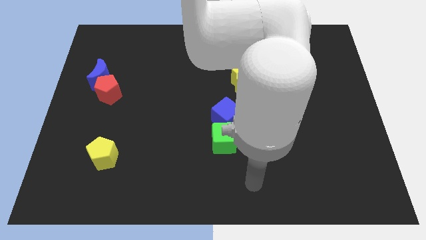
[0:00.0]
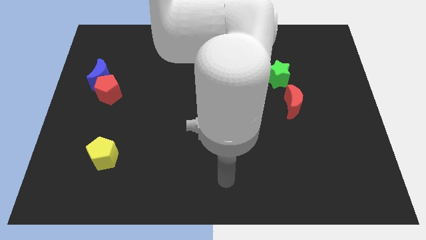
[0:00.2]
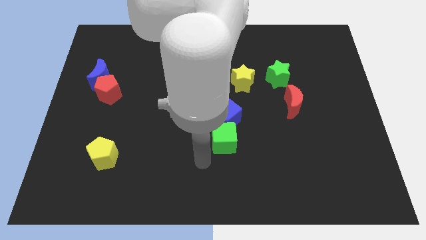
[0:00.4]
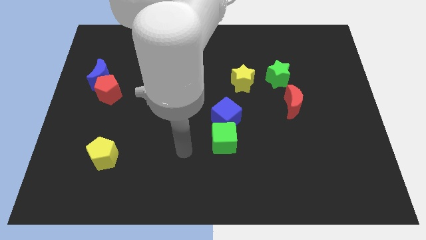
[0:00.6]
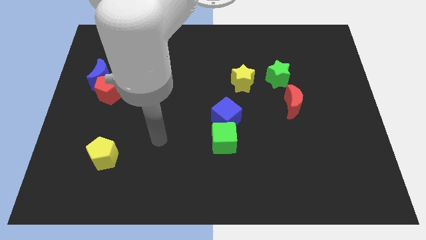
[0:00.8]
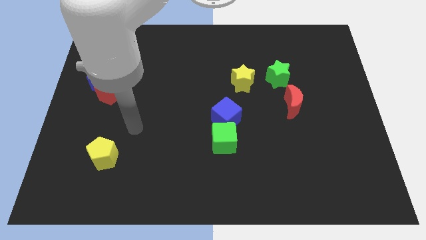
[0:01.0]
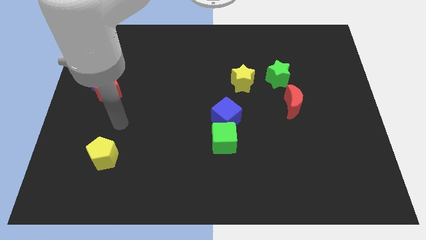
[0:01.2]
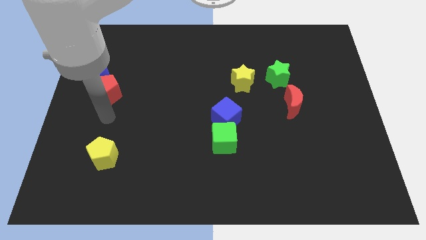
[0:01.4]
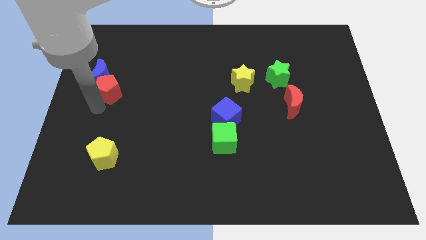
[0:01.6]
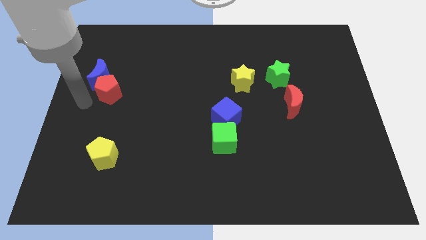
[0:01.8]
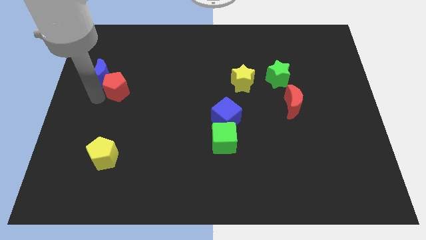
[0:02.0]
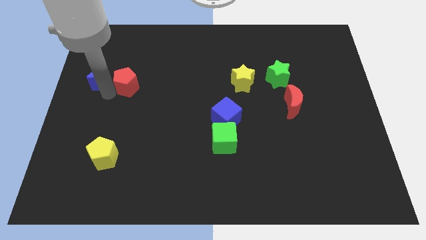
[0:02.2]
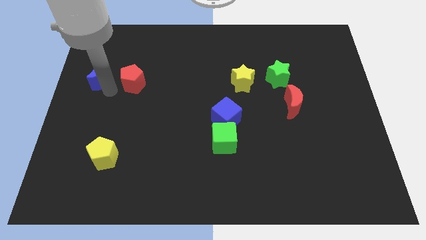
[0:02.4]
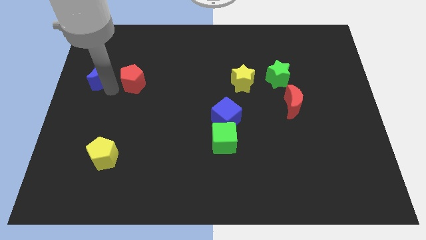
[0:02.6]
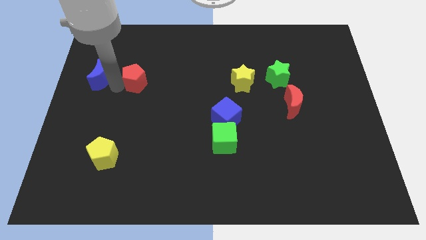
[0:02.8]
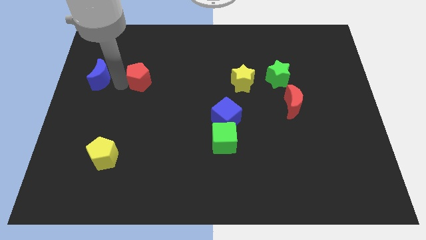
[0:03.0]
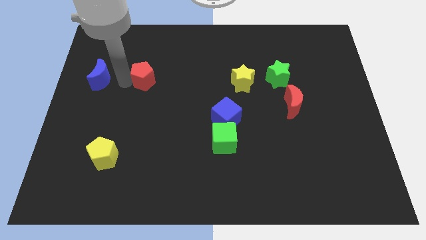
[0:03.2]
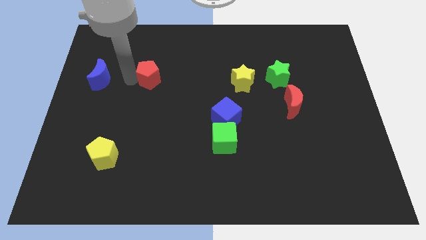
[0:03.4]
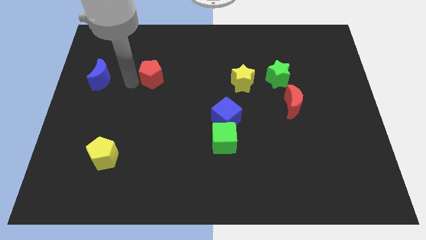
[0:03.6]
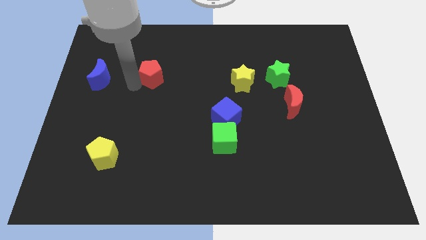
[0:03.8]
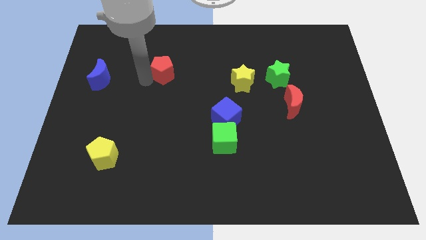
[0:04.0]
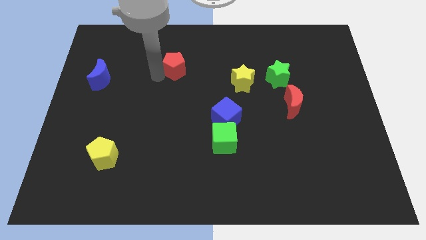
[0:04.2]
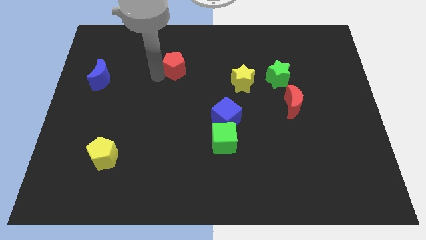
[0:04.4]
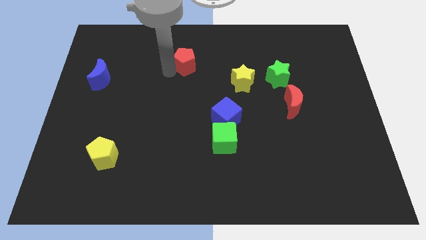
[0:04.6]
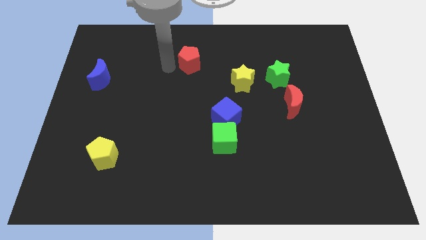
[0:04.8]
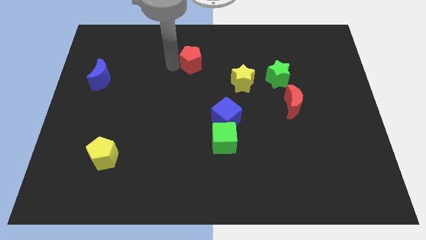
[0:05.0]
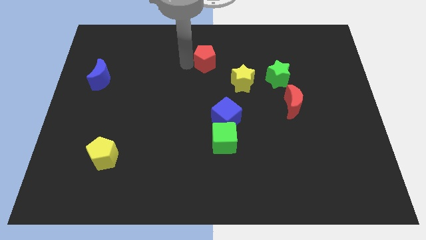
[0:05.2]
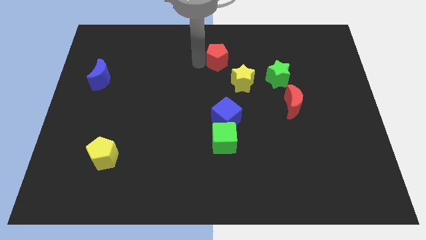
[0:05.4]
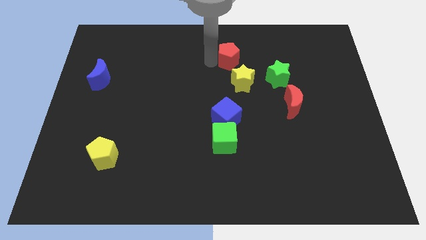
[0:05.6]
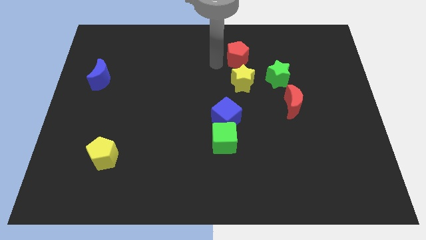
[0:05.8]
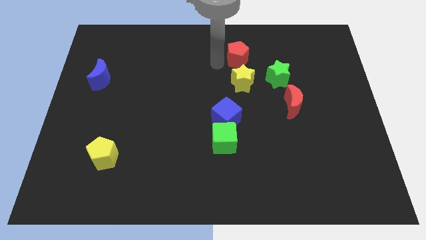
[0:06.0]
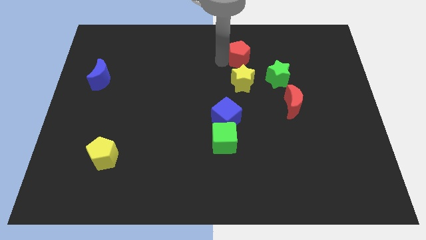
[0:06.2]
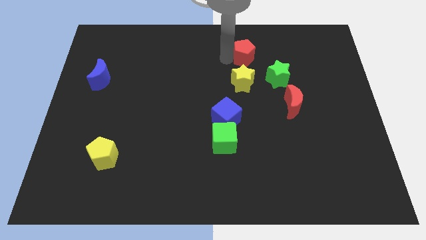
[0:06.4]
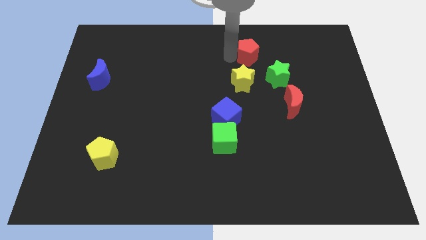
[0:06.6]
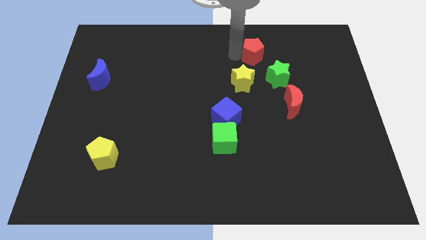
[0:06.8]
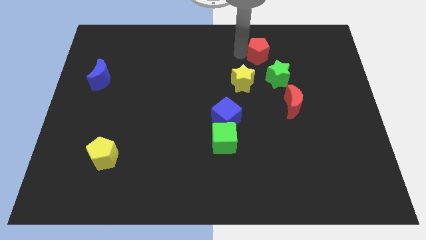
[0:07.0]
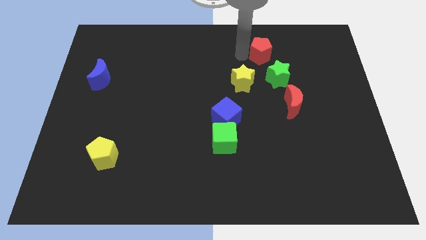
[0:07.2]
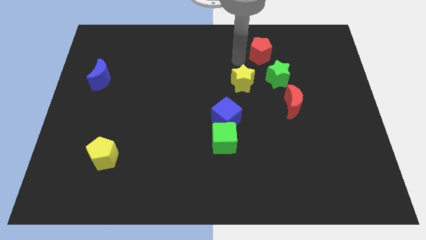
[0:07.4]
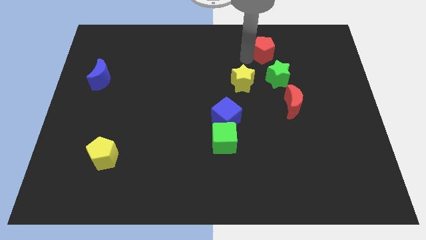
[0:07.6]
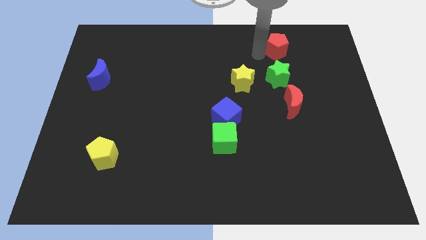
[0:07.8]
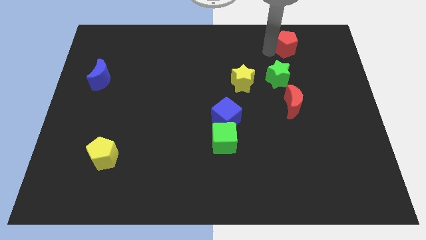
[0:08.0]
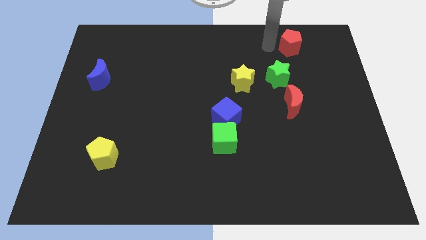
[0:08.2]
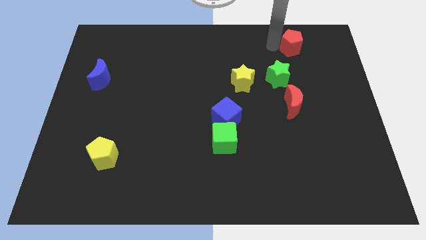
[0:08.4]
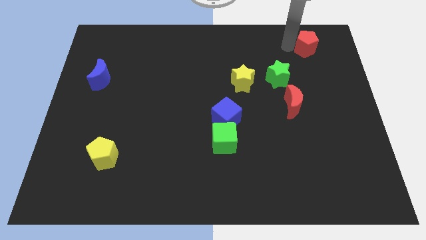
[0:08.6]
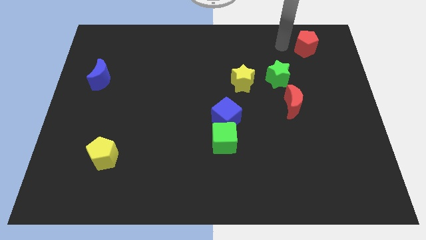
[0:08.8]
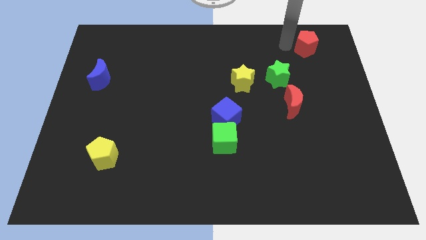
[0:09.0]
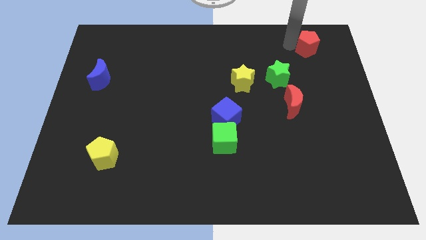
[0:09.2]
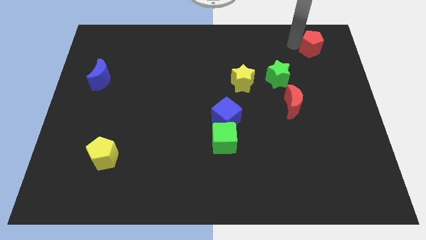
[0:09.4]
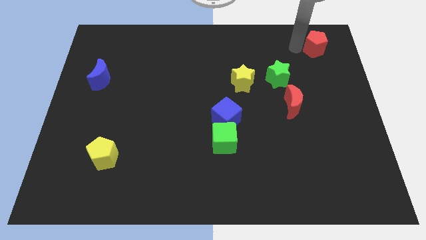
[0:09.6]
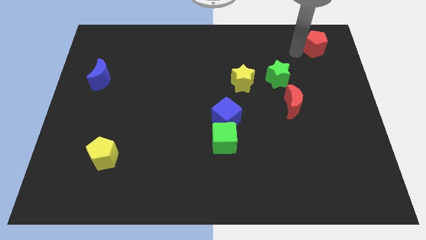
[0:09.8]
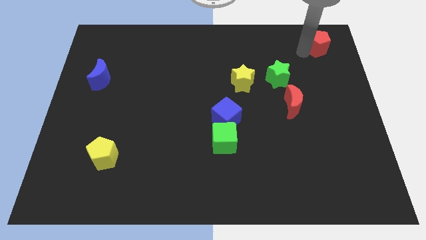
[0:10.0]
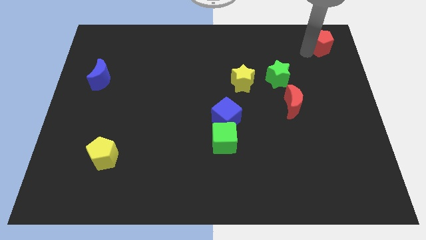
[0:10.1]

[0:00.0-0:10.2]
slide the red pentagon to the upper right corner

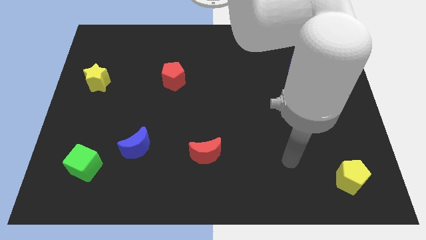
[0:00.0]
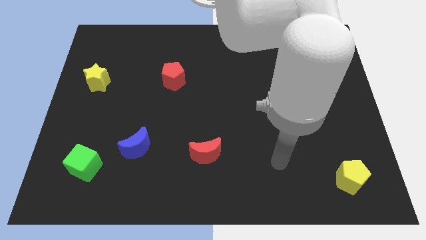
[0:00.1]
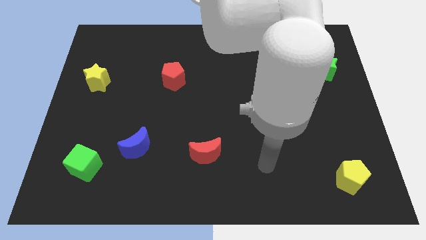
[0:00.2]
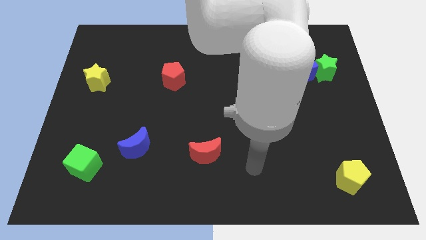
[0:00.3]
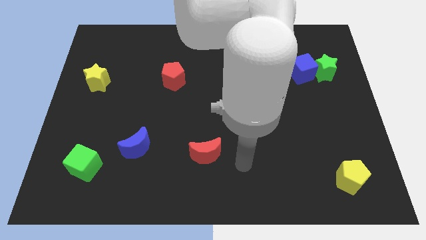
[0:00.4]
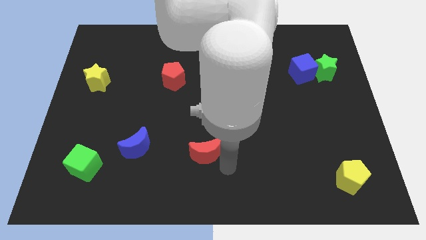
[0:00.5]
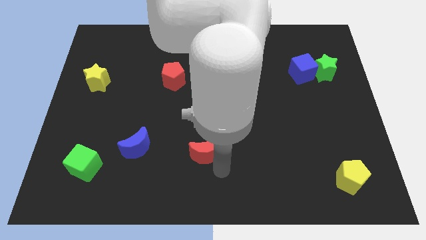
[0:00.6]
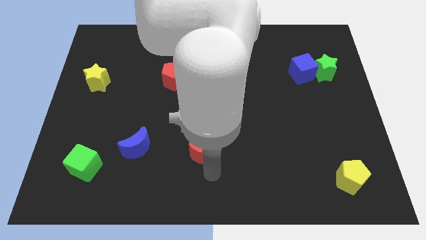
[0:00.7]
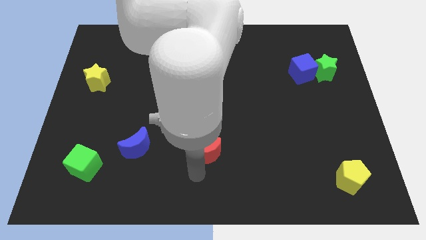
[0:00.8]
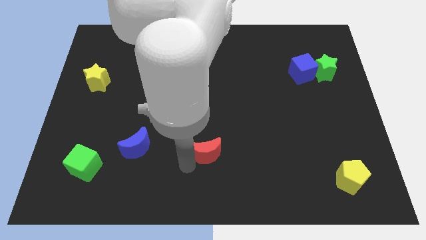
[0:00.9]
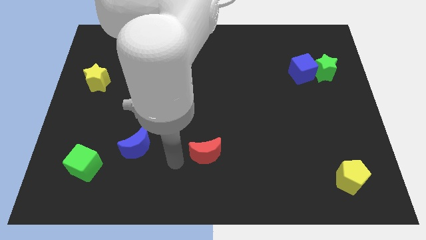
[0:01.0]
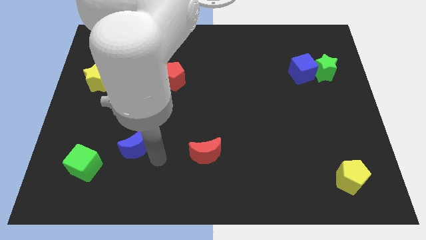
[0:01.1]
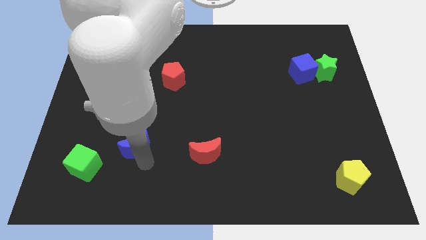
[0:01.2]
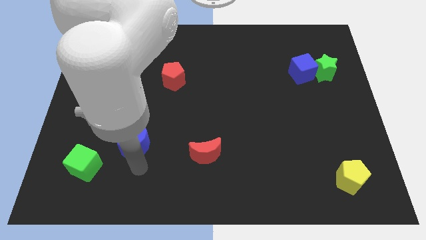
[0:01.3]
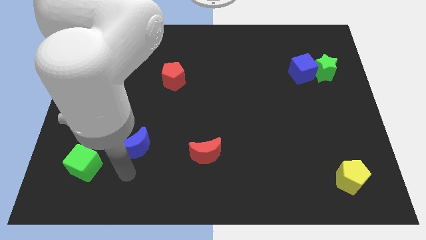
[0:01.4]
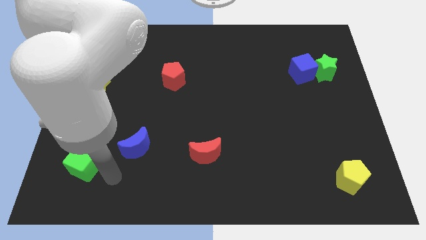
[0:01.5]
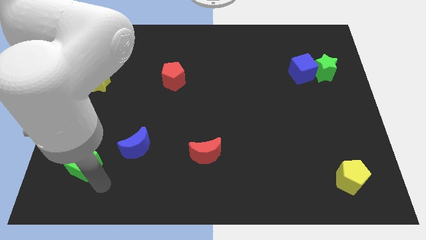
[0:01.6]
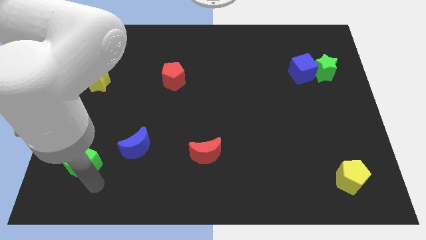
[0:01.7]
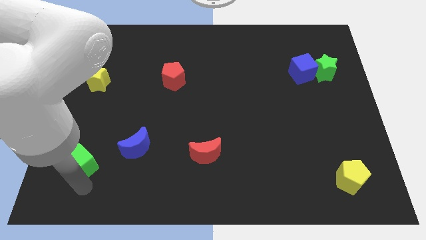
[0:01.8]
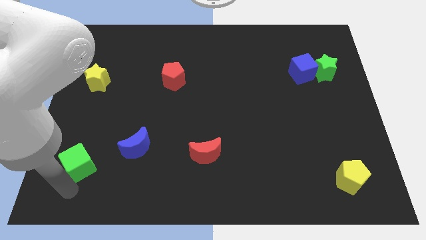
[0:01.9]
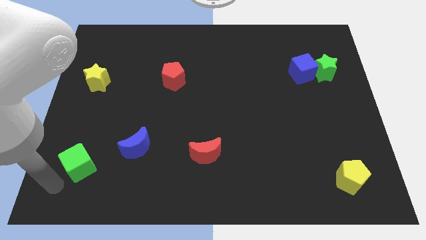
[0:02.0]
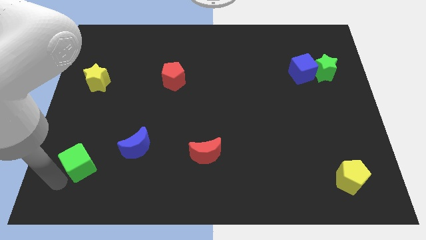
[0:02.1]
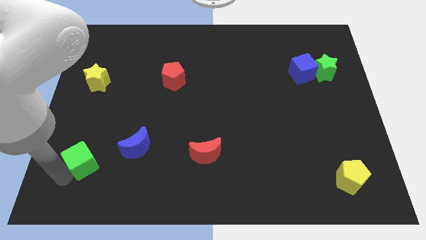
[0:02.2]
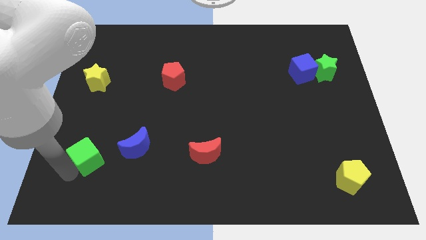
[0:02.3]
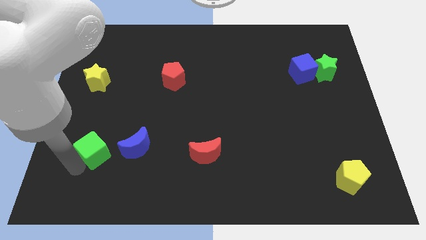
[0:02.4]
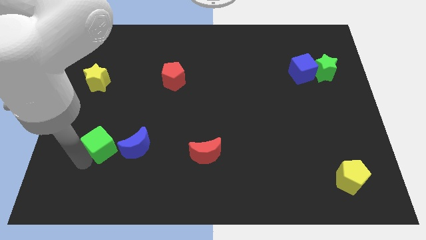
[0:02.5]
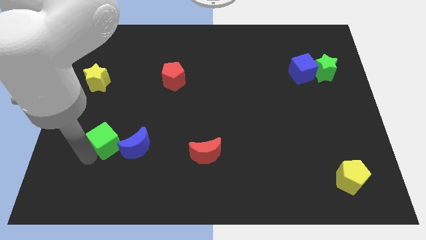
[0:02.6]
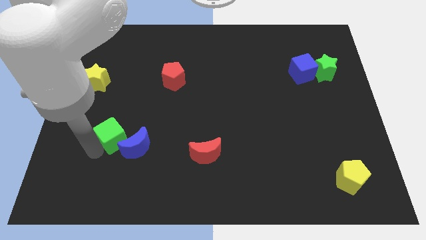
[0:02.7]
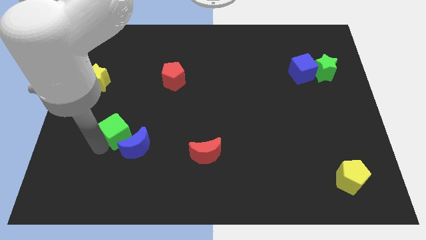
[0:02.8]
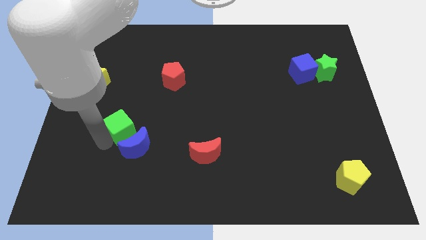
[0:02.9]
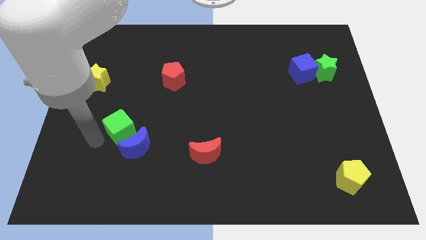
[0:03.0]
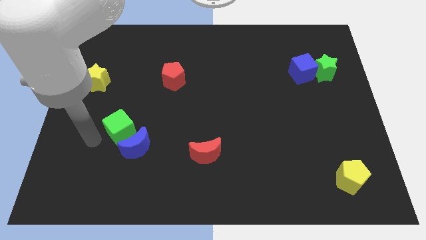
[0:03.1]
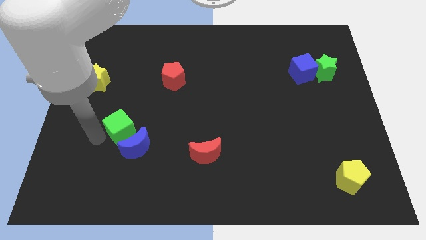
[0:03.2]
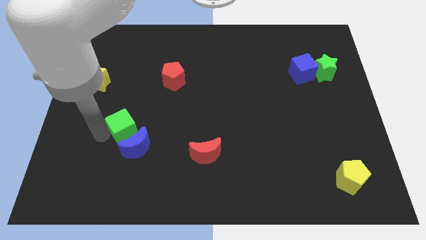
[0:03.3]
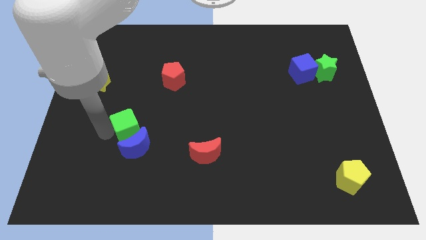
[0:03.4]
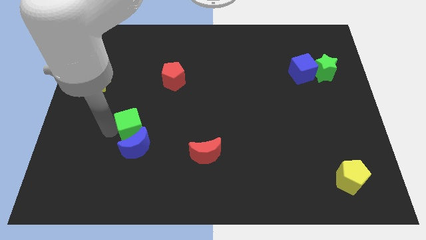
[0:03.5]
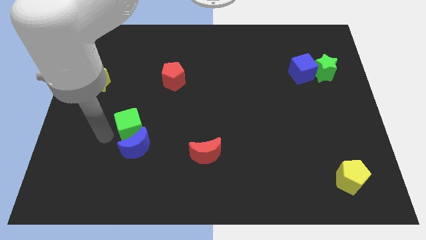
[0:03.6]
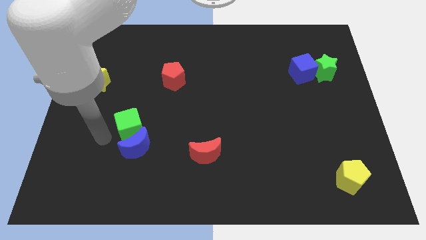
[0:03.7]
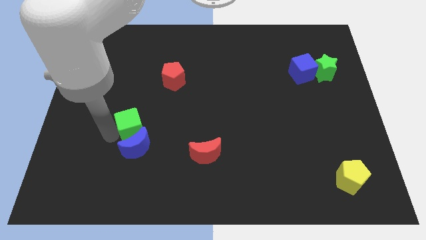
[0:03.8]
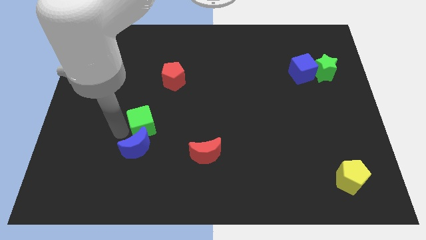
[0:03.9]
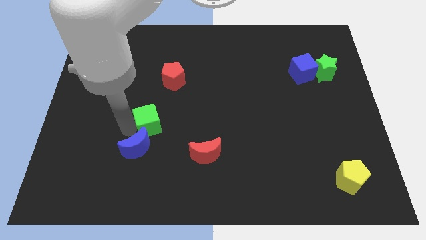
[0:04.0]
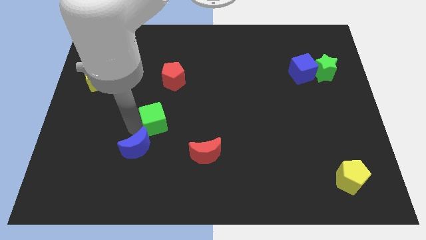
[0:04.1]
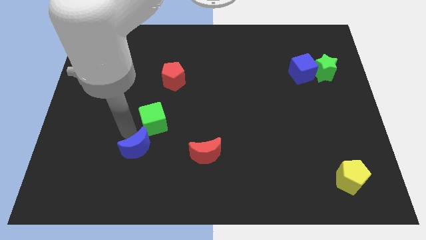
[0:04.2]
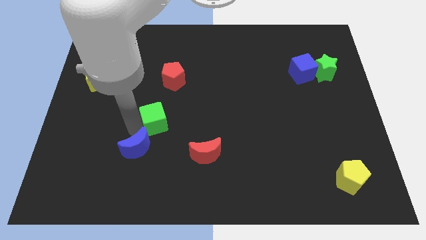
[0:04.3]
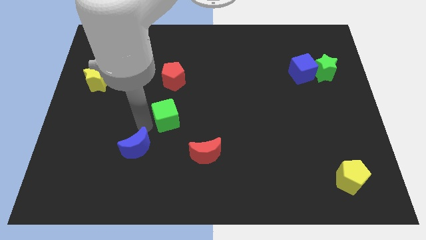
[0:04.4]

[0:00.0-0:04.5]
slide the green cube to the middle
